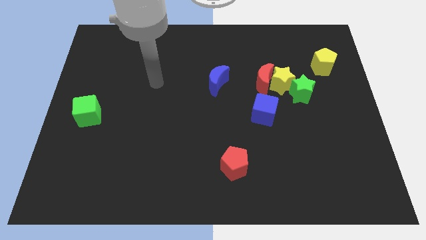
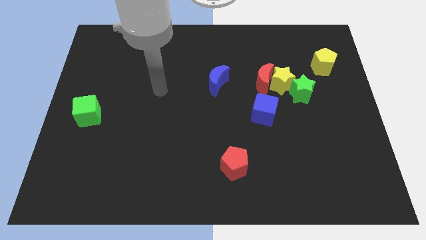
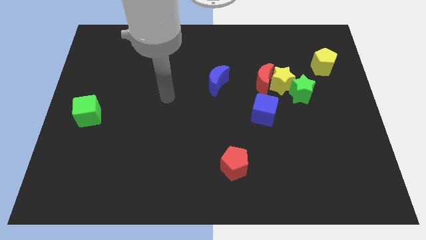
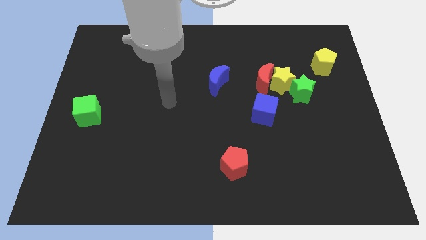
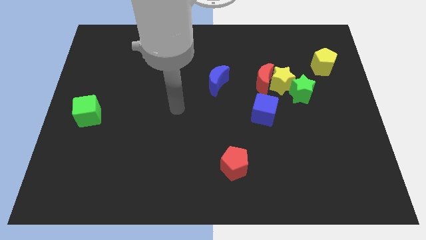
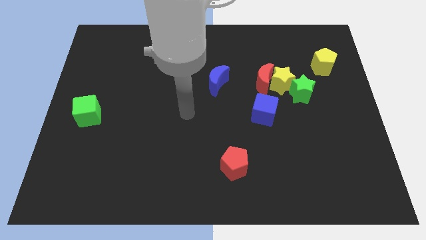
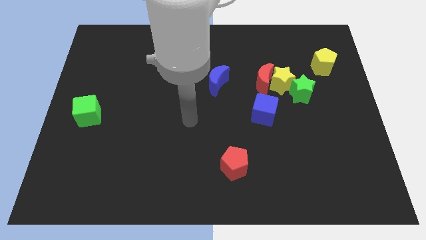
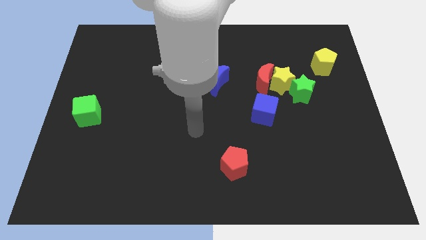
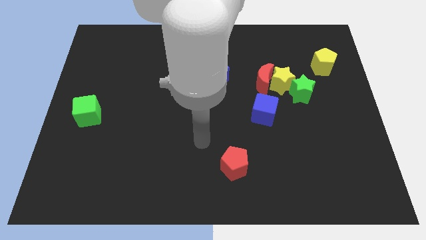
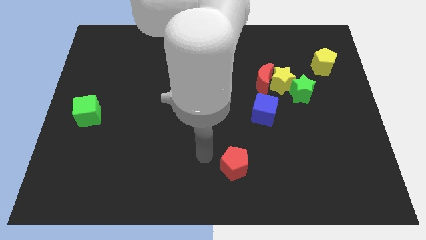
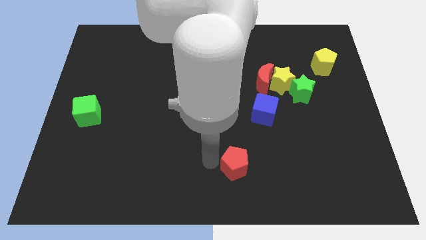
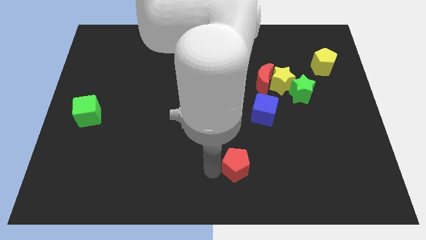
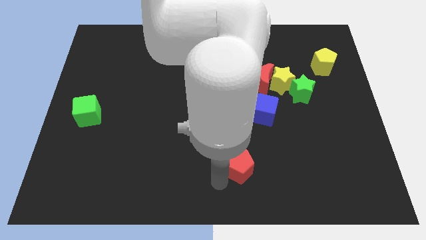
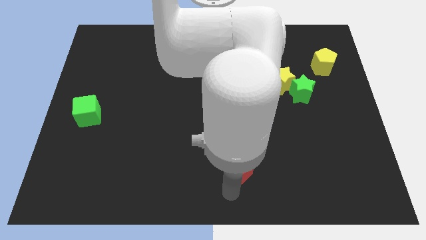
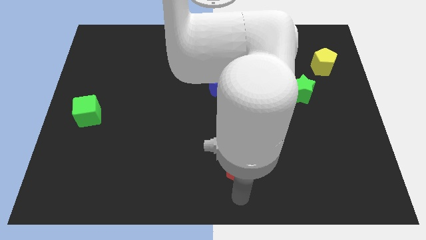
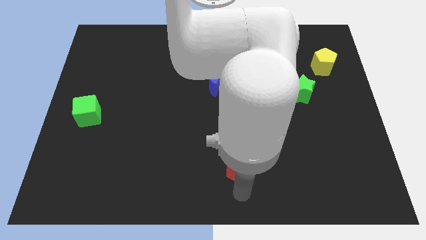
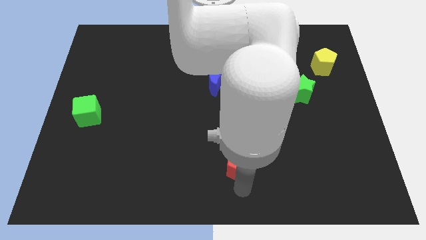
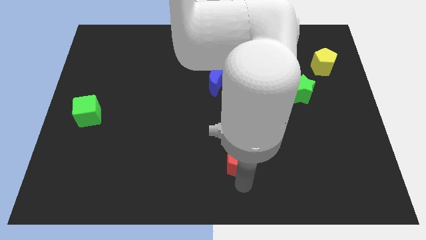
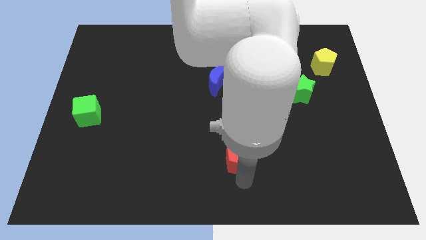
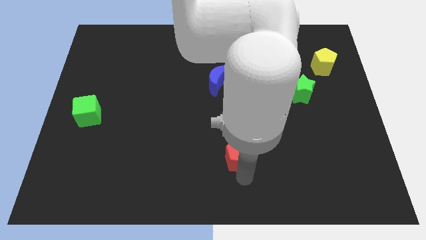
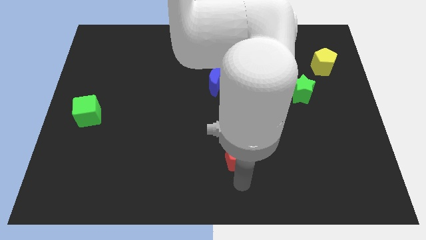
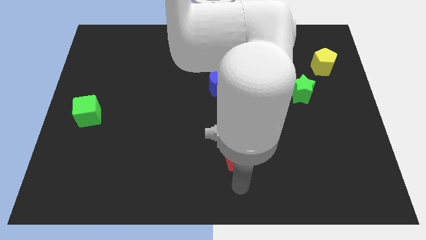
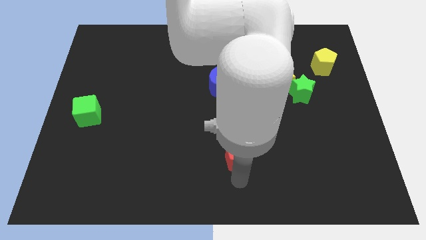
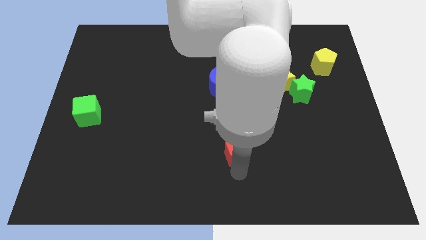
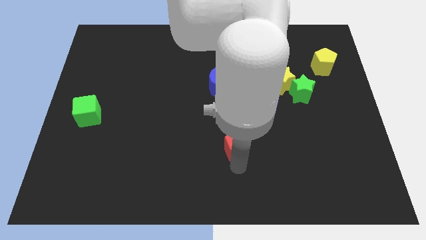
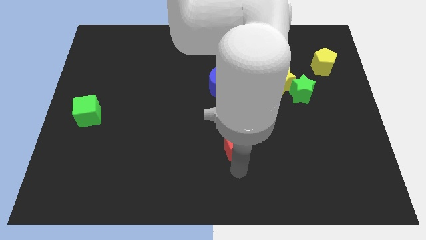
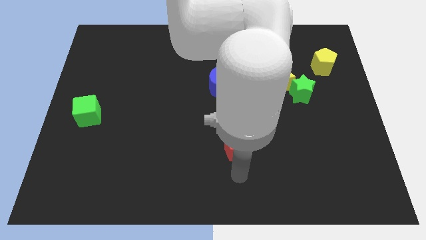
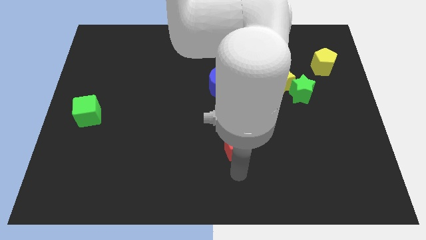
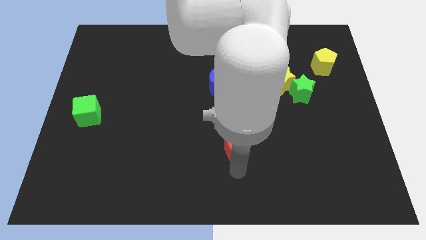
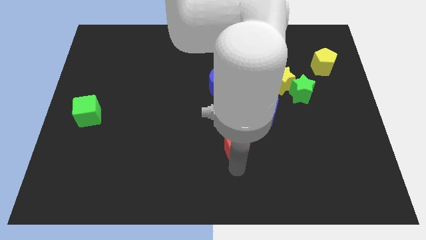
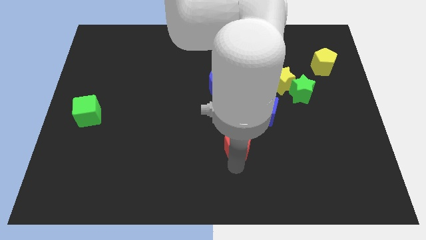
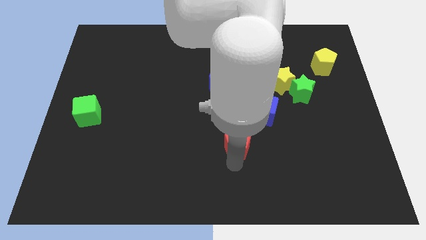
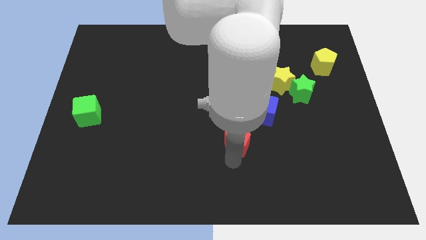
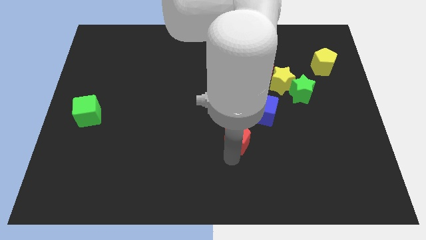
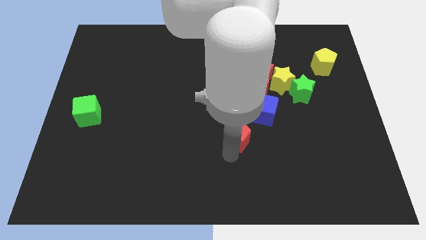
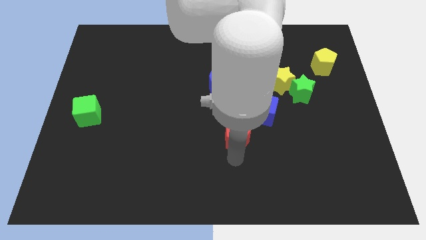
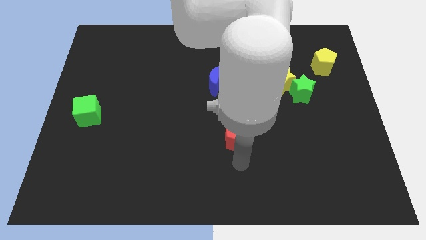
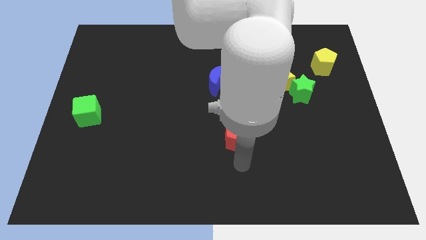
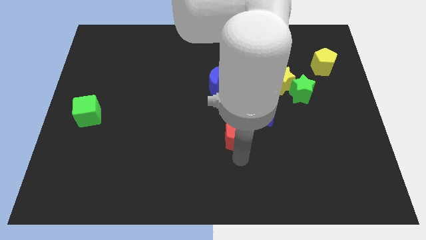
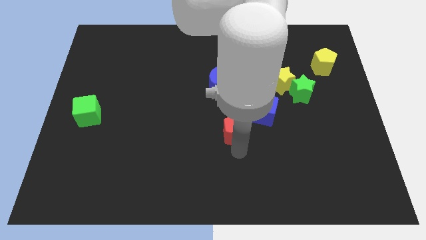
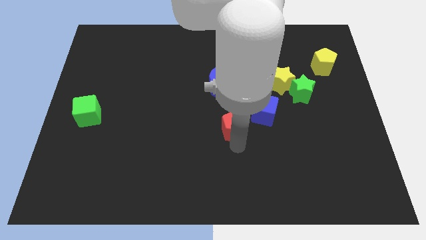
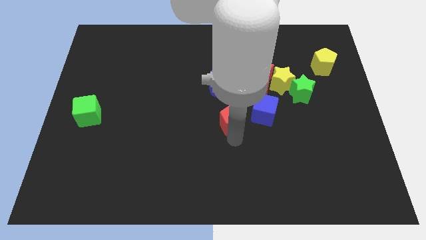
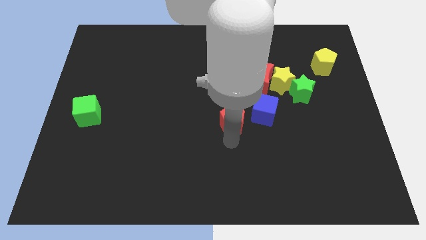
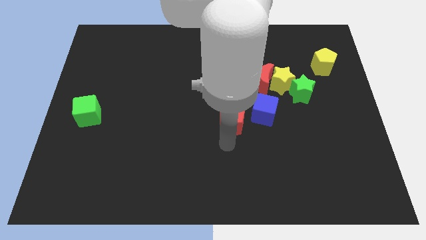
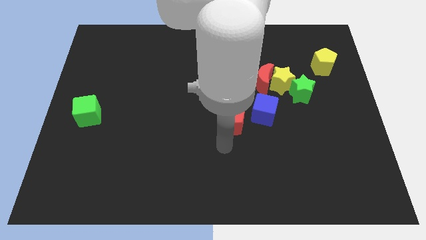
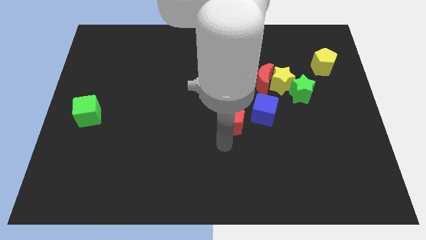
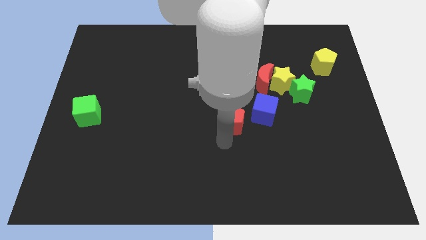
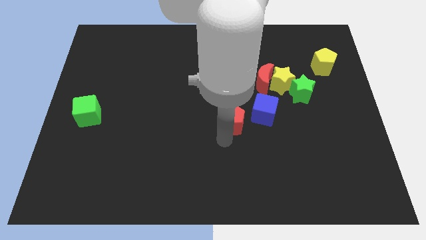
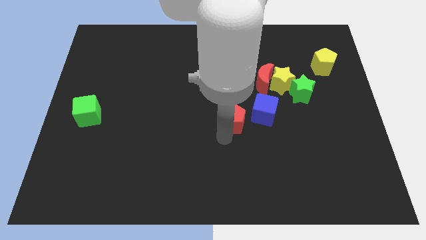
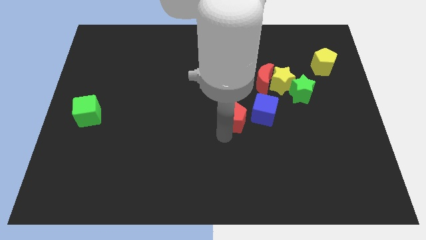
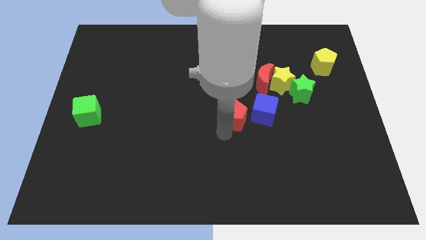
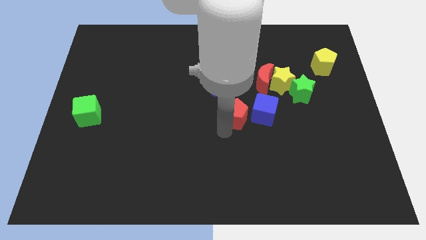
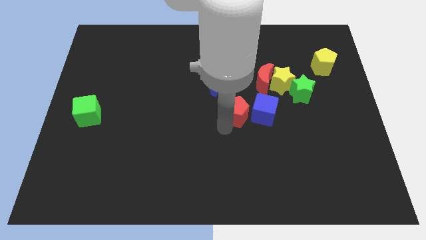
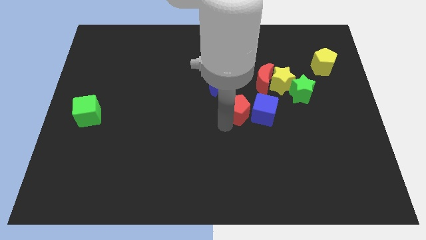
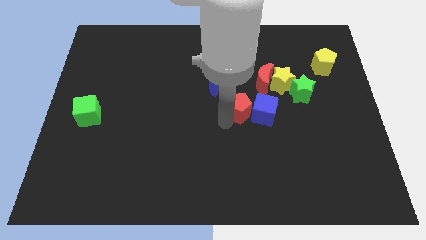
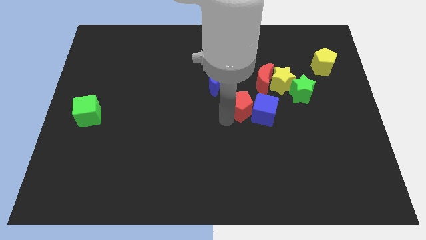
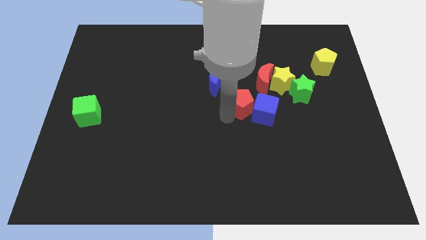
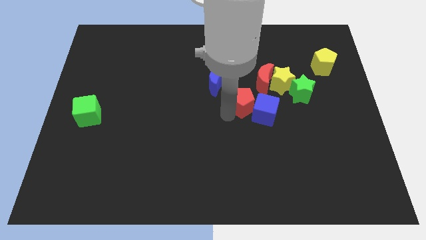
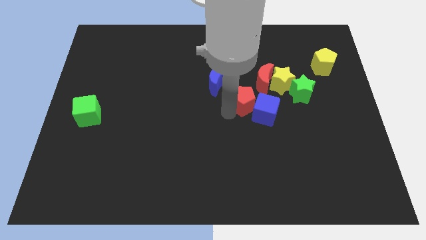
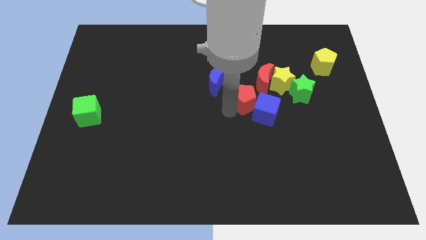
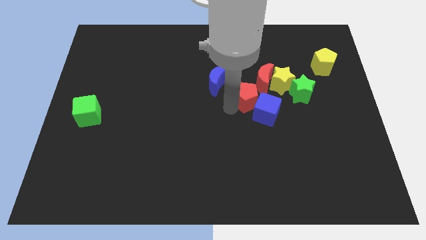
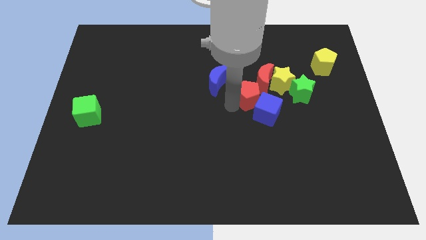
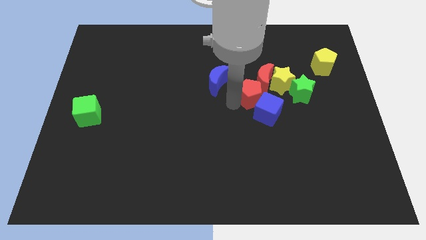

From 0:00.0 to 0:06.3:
push the red pentagon next to the red moon

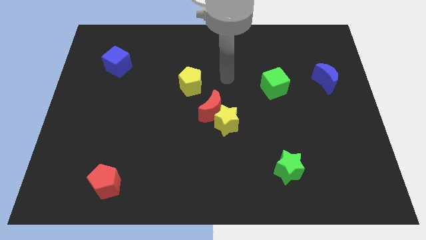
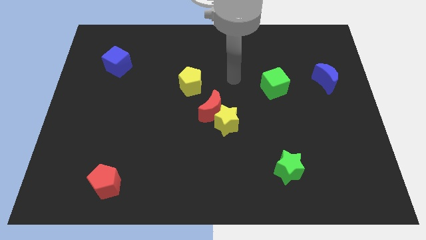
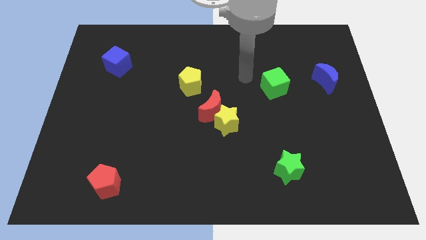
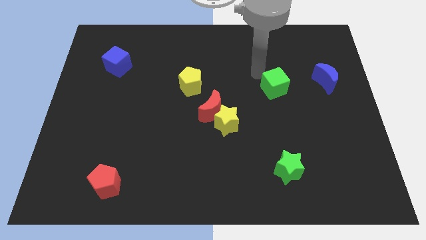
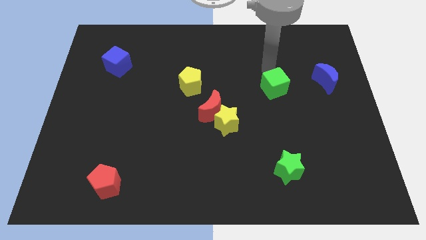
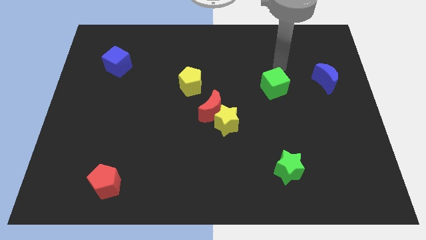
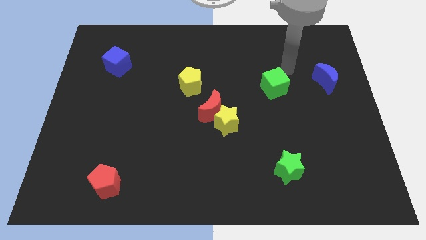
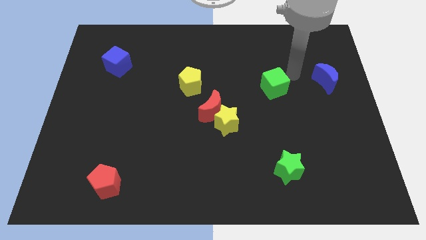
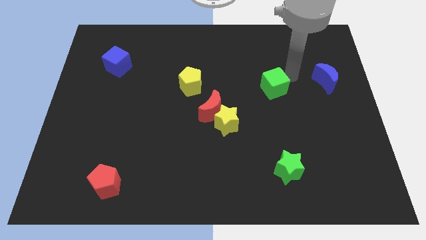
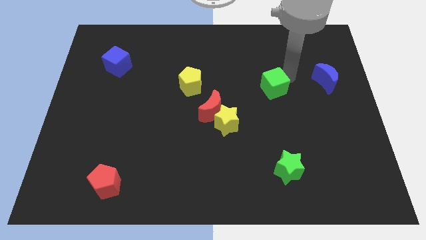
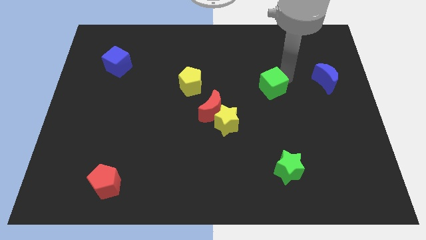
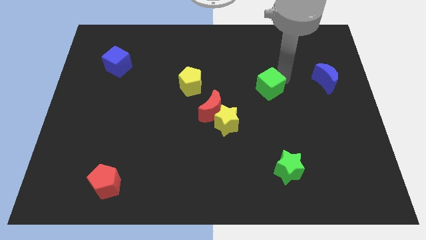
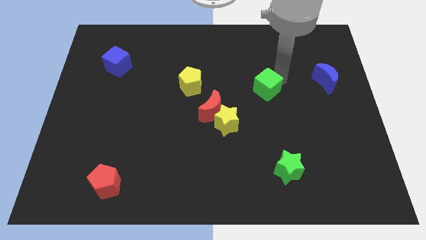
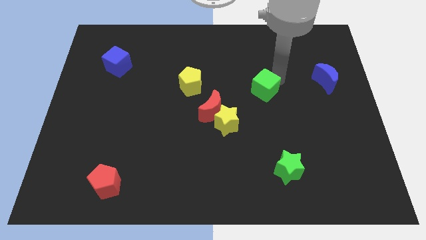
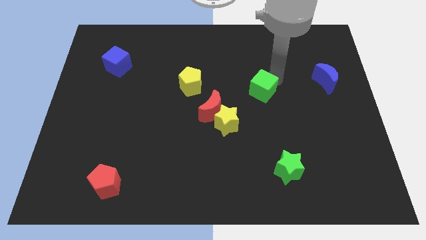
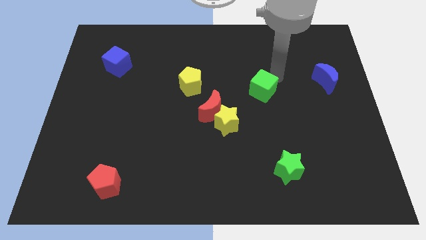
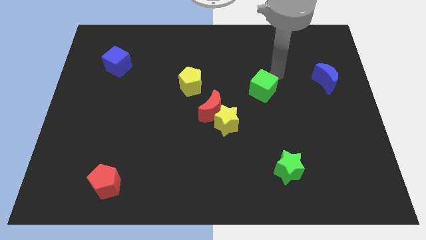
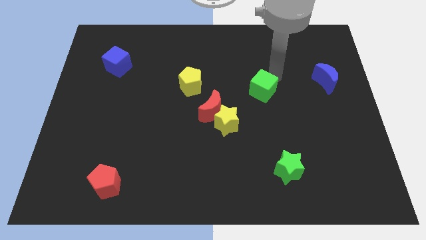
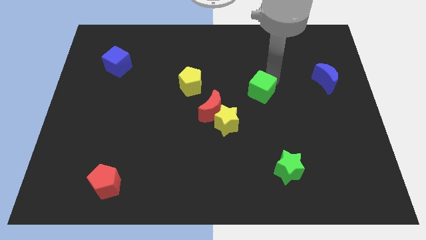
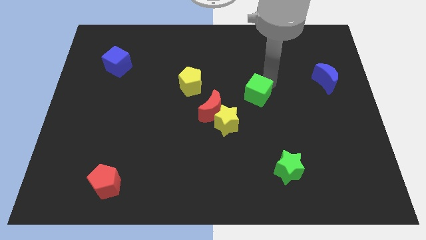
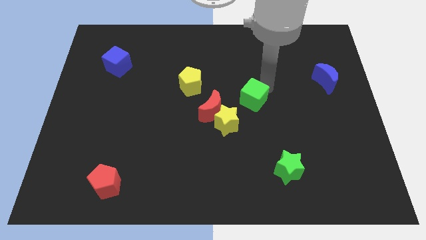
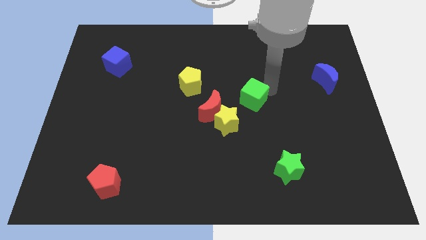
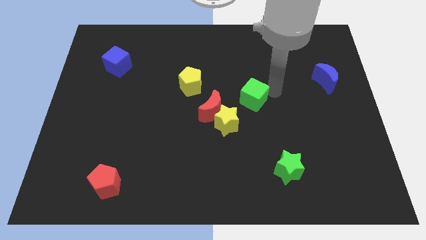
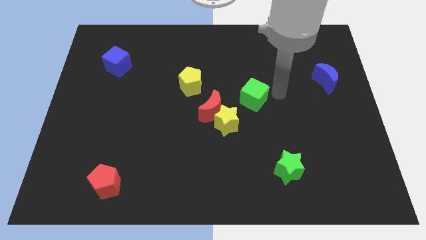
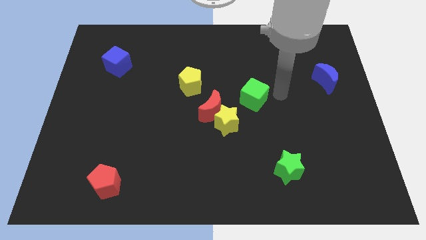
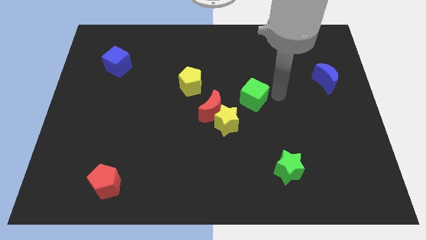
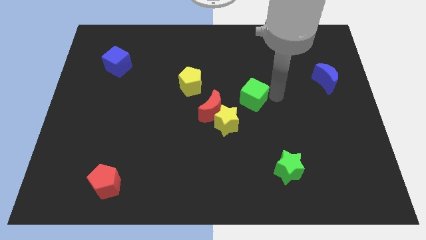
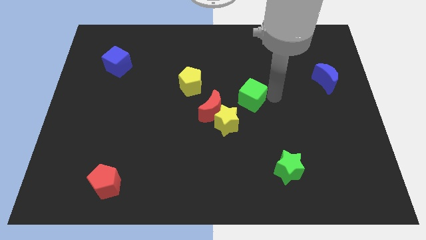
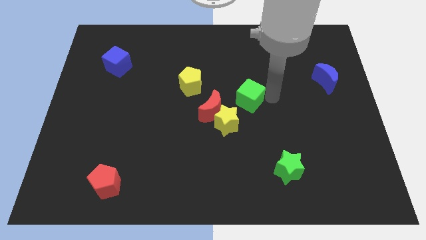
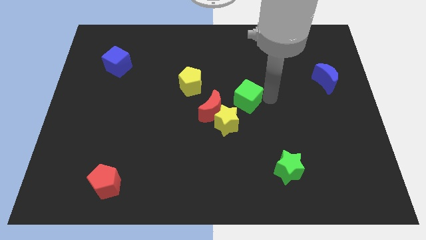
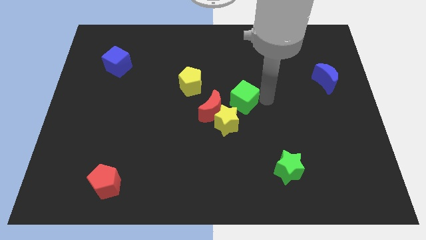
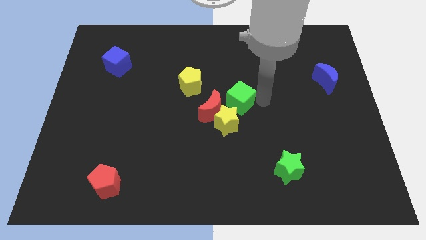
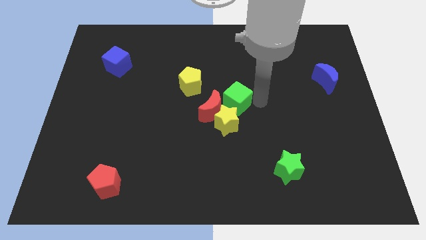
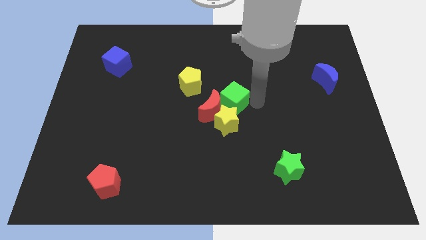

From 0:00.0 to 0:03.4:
move the green cube towards the red moon
